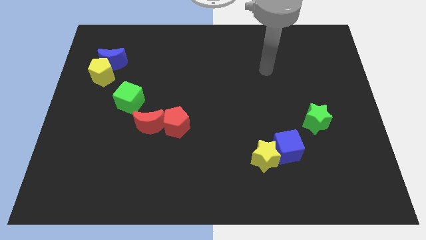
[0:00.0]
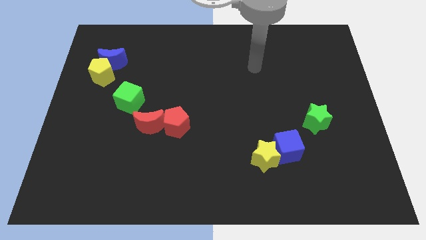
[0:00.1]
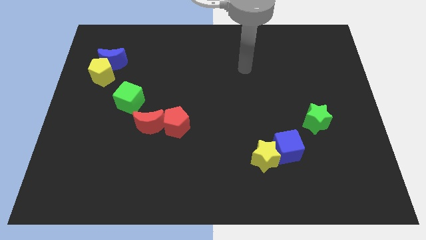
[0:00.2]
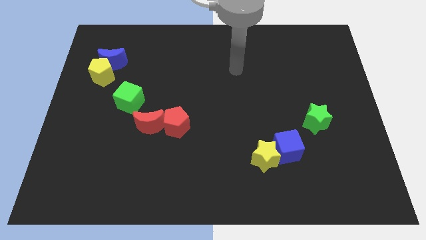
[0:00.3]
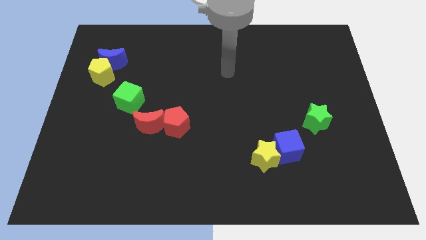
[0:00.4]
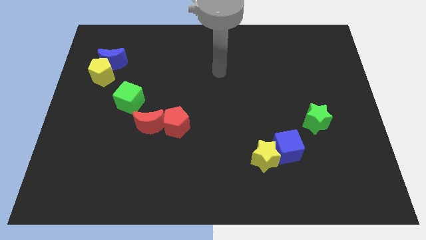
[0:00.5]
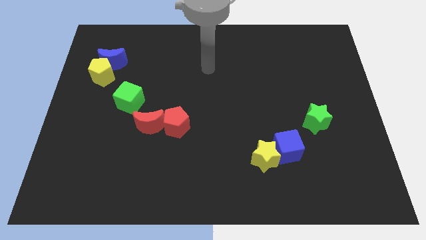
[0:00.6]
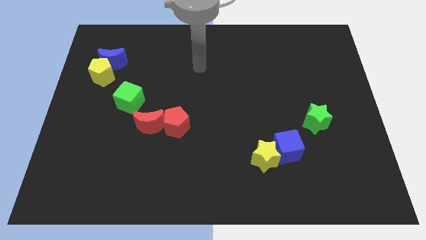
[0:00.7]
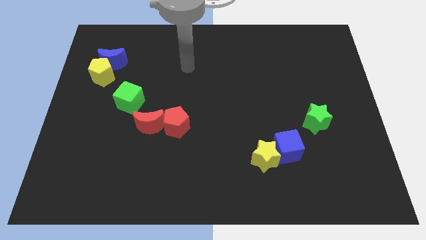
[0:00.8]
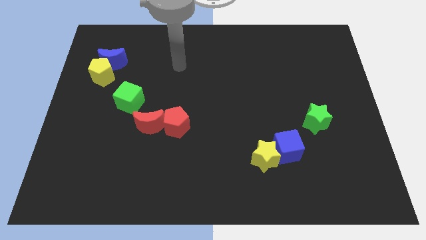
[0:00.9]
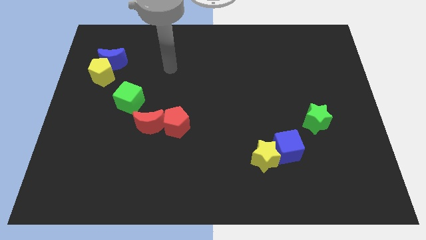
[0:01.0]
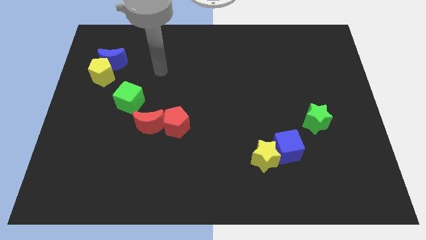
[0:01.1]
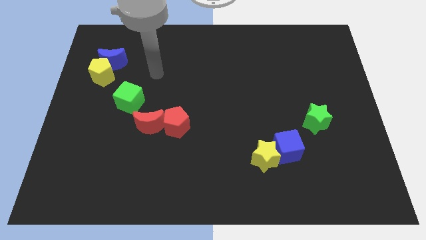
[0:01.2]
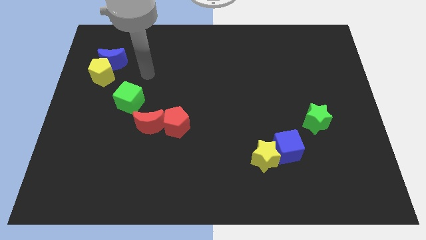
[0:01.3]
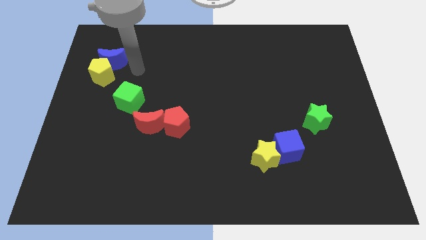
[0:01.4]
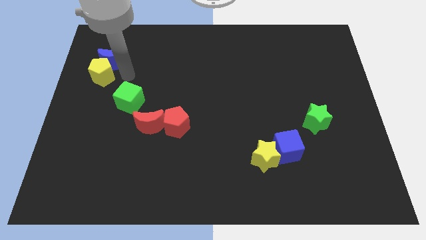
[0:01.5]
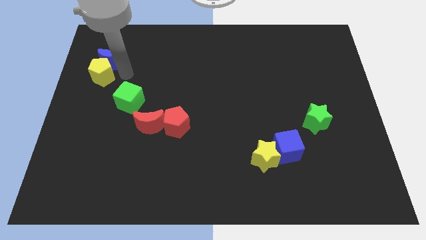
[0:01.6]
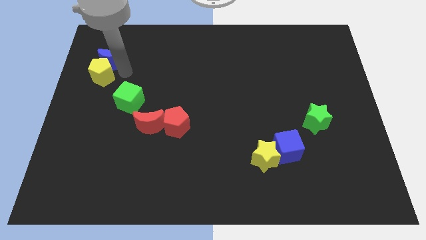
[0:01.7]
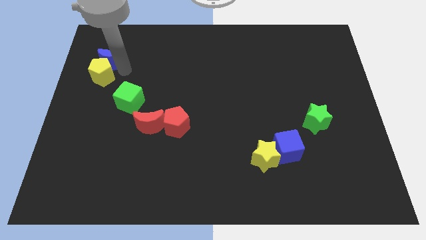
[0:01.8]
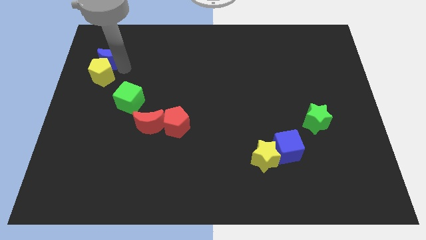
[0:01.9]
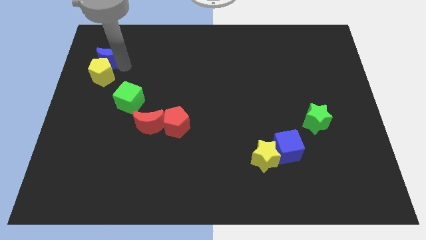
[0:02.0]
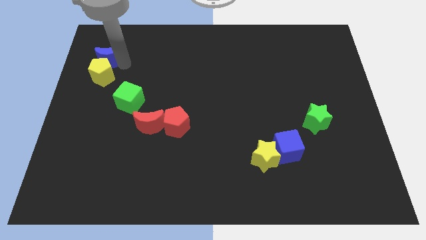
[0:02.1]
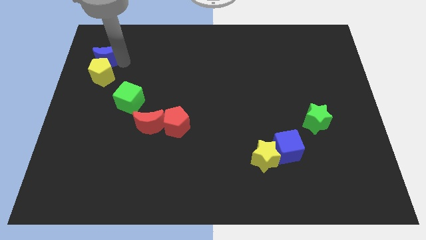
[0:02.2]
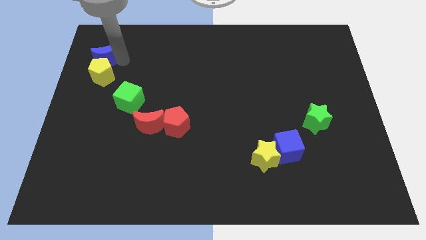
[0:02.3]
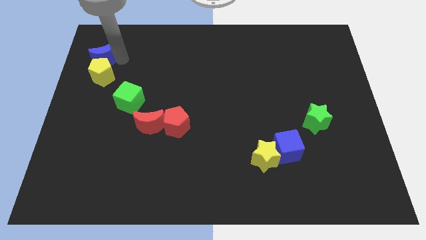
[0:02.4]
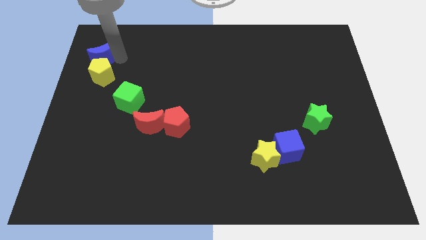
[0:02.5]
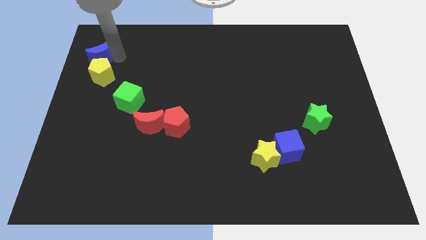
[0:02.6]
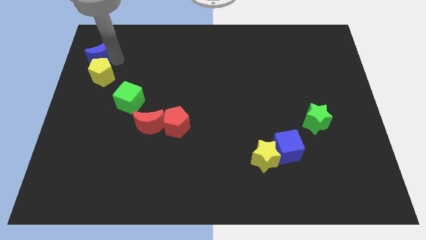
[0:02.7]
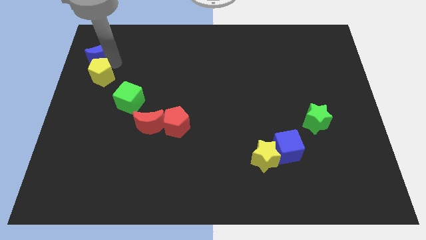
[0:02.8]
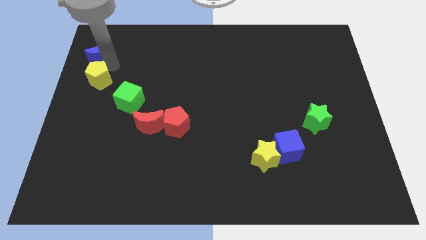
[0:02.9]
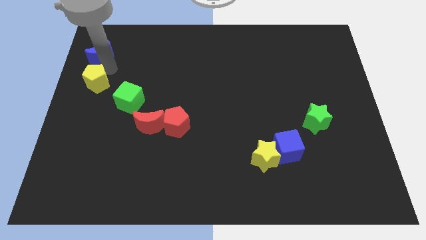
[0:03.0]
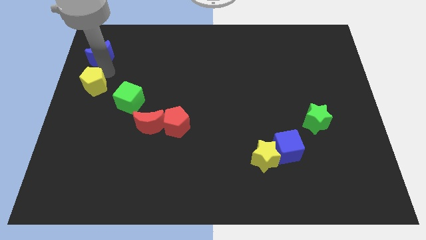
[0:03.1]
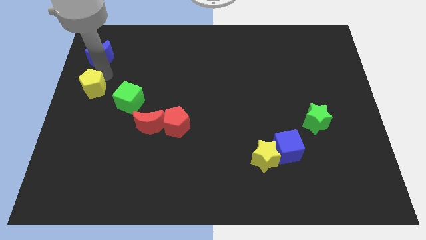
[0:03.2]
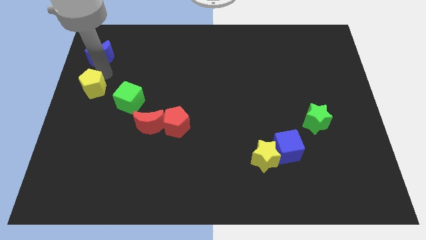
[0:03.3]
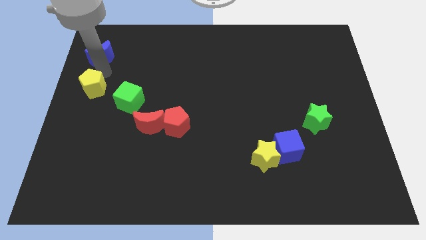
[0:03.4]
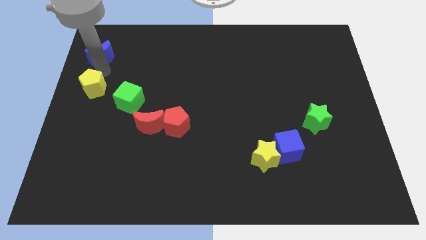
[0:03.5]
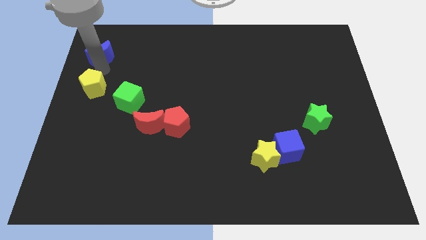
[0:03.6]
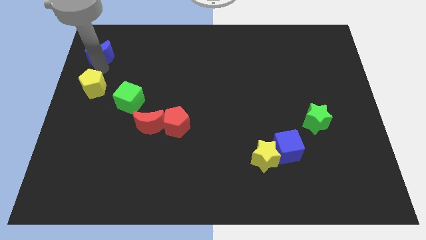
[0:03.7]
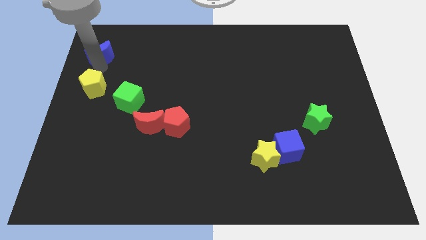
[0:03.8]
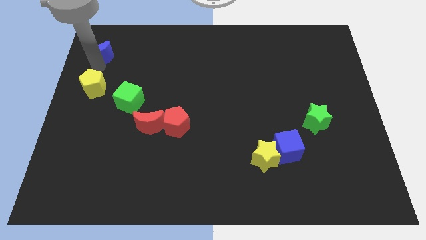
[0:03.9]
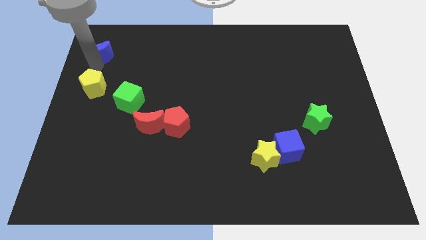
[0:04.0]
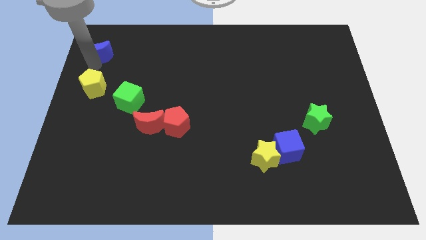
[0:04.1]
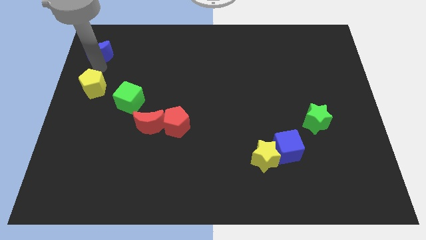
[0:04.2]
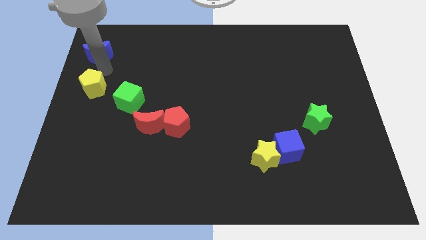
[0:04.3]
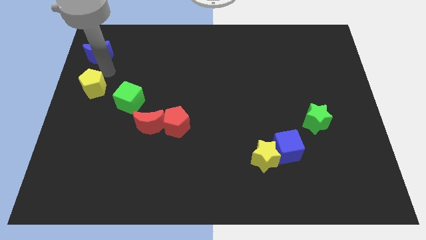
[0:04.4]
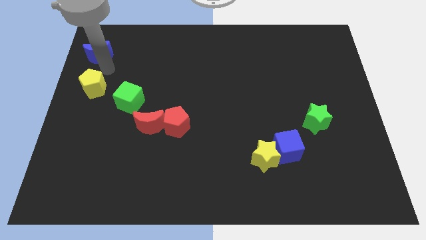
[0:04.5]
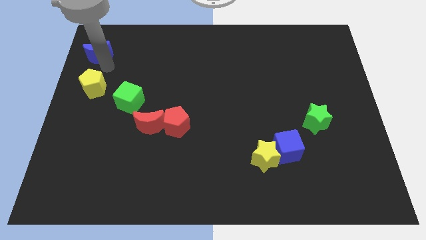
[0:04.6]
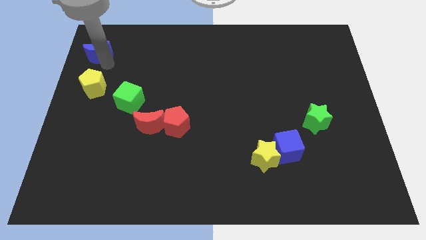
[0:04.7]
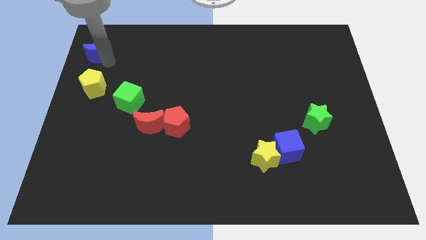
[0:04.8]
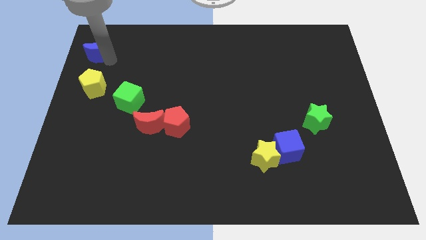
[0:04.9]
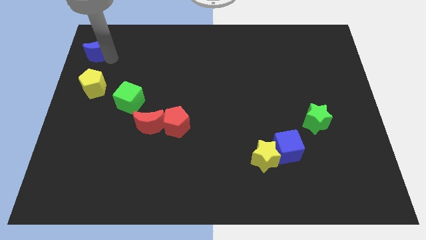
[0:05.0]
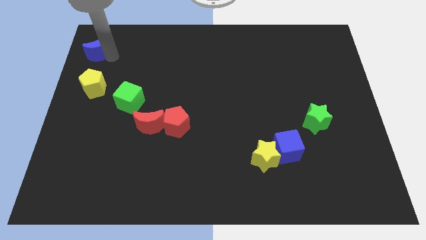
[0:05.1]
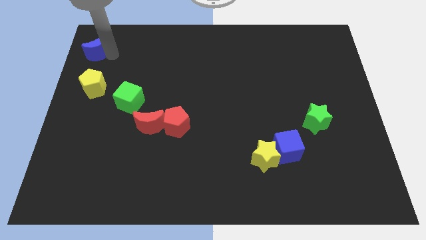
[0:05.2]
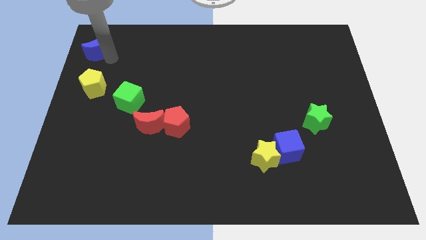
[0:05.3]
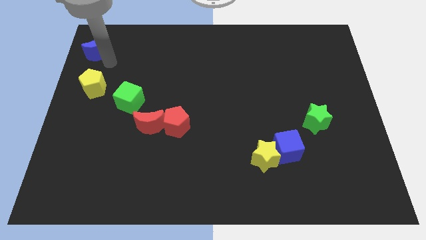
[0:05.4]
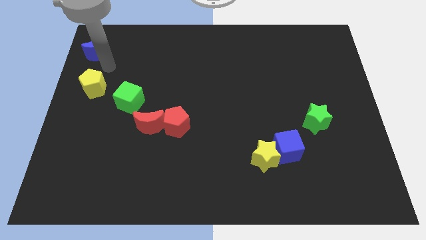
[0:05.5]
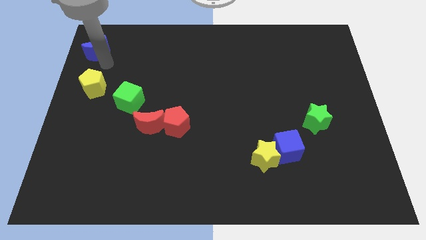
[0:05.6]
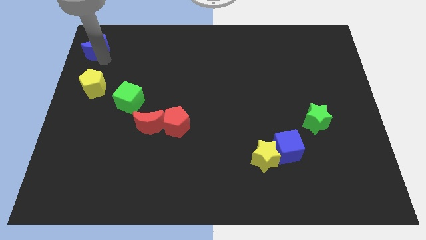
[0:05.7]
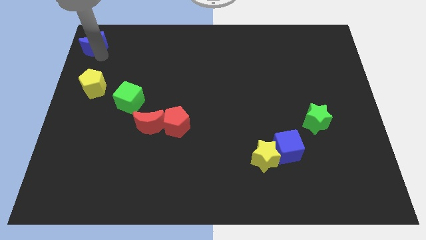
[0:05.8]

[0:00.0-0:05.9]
slide the blue moon to the top left corner
